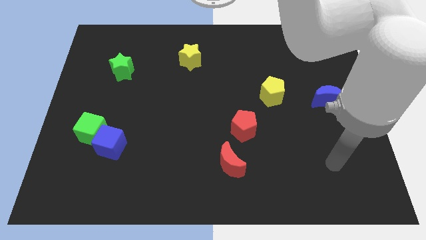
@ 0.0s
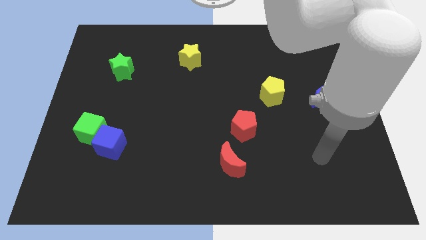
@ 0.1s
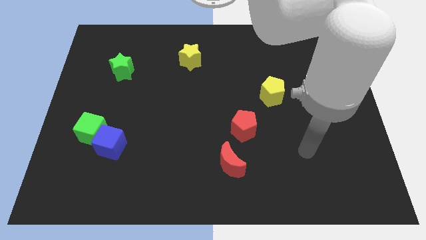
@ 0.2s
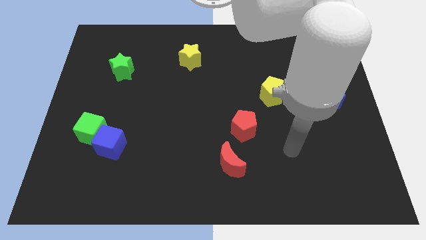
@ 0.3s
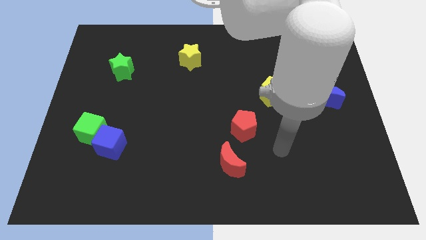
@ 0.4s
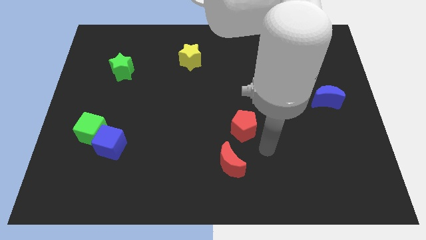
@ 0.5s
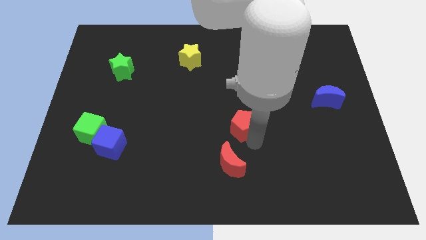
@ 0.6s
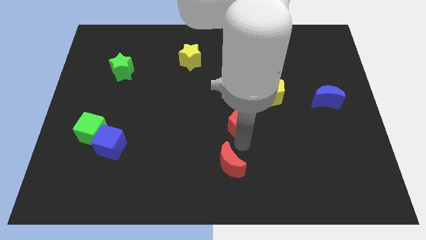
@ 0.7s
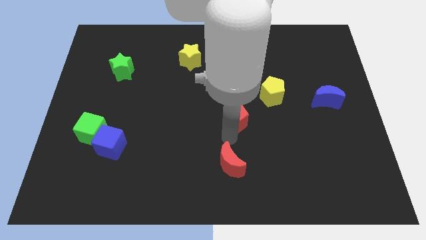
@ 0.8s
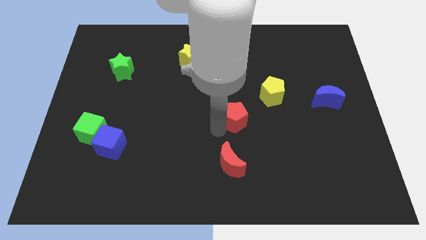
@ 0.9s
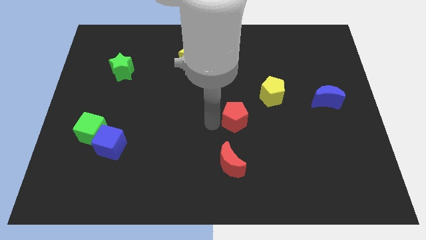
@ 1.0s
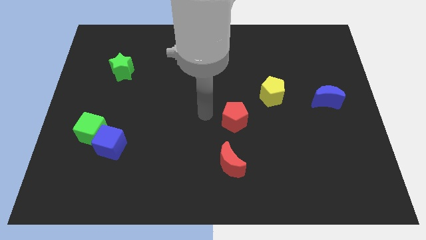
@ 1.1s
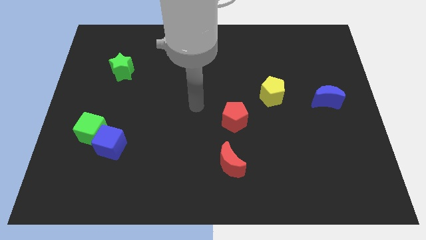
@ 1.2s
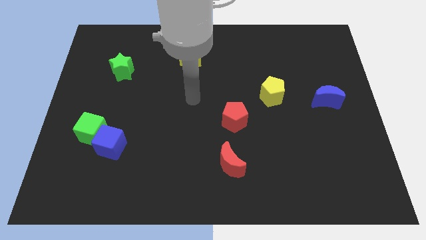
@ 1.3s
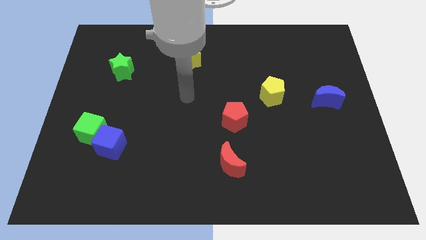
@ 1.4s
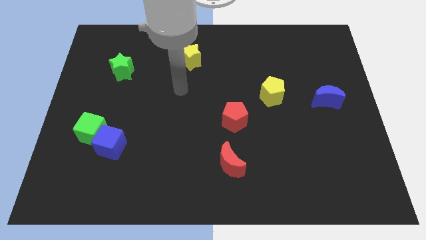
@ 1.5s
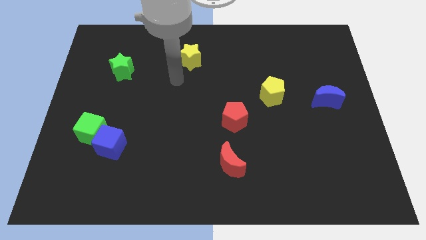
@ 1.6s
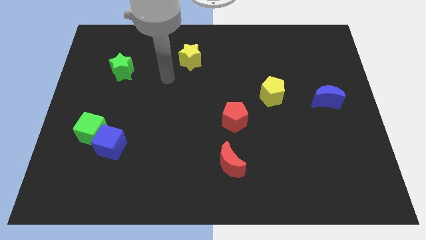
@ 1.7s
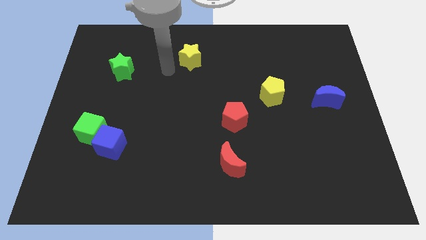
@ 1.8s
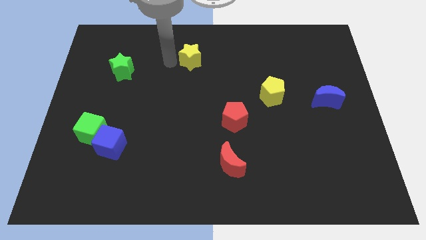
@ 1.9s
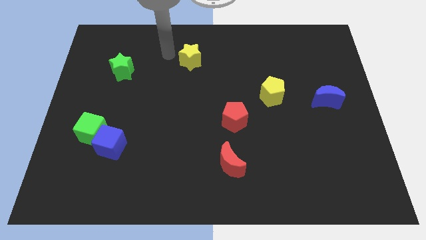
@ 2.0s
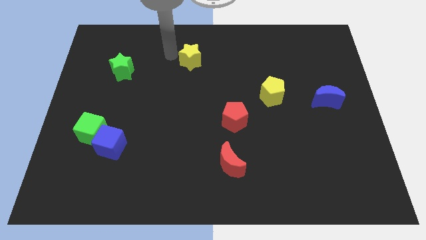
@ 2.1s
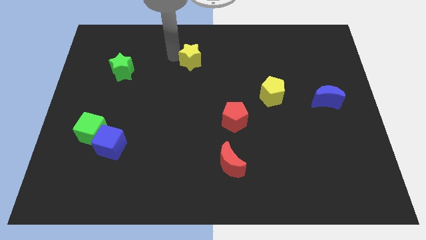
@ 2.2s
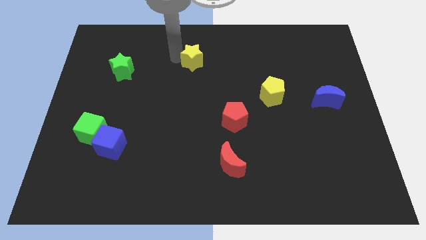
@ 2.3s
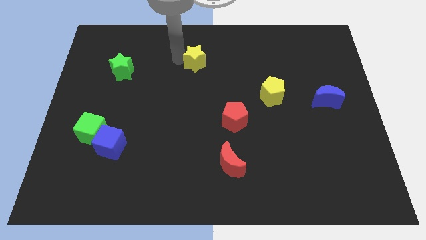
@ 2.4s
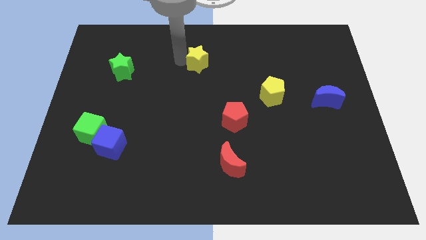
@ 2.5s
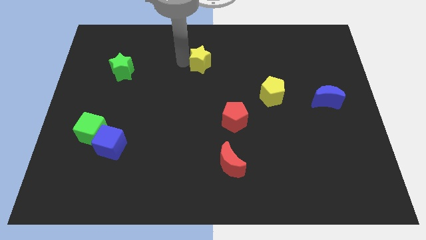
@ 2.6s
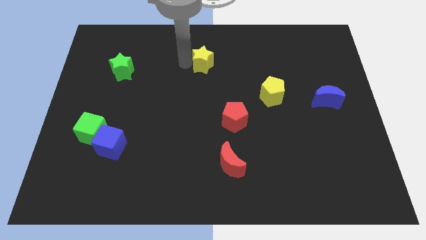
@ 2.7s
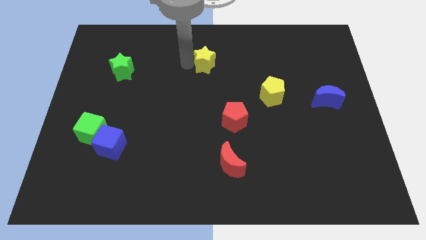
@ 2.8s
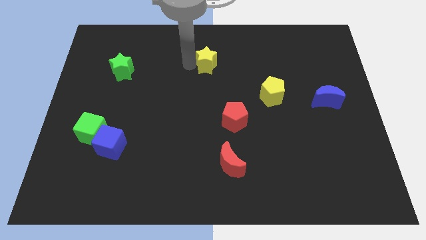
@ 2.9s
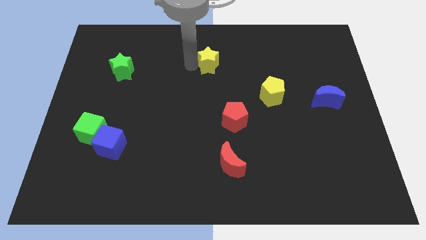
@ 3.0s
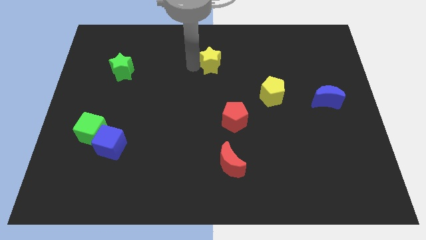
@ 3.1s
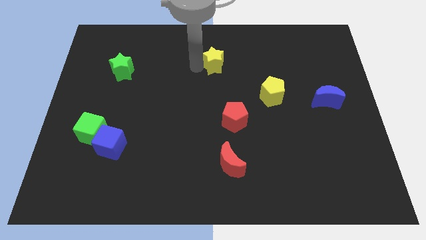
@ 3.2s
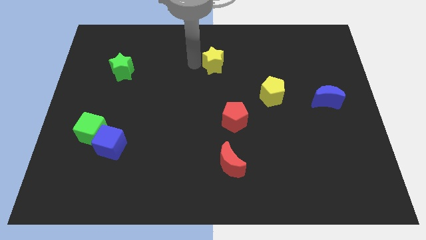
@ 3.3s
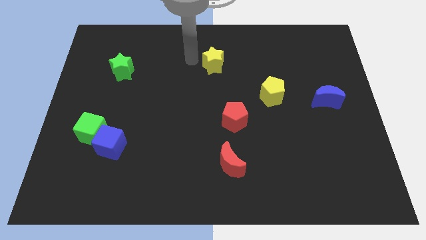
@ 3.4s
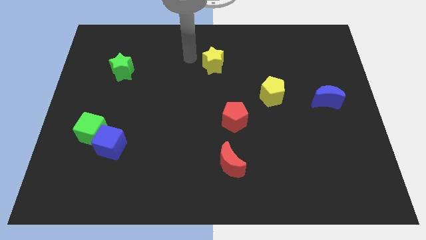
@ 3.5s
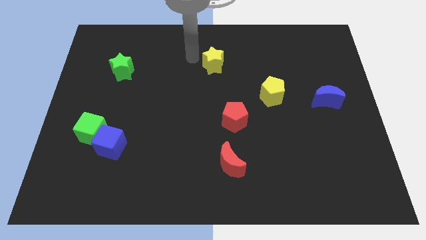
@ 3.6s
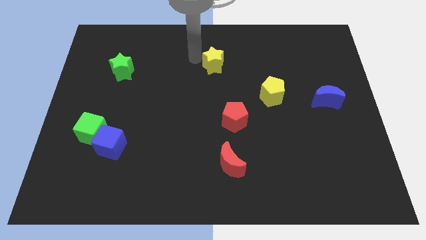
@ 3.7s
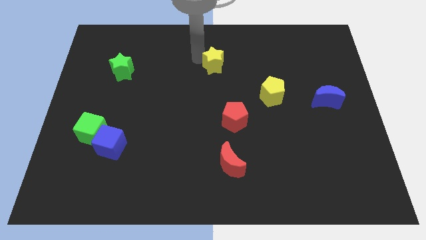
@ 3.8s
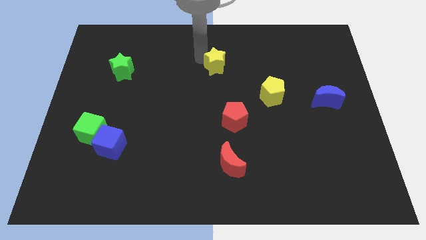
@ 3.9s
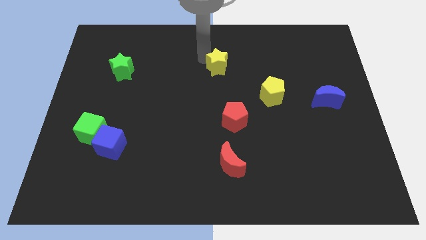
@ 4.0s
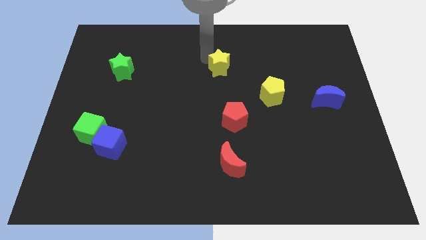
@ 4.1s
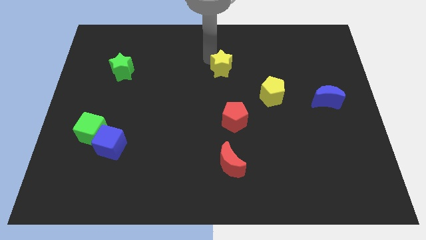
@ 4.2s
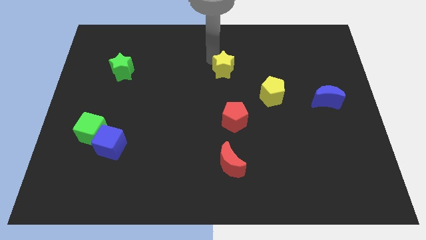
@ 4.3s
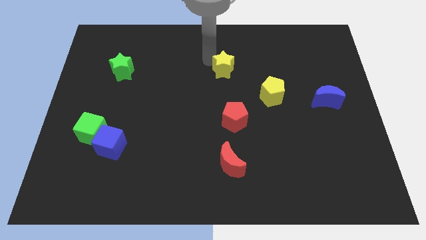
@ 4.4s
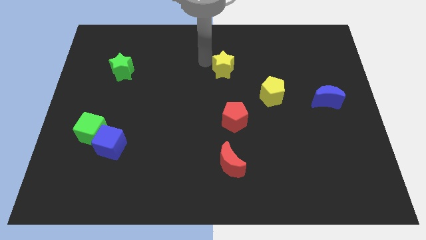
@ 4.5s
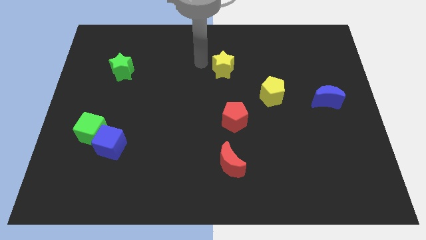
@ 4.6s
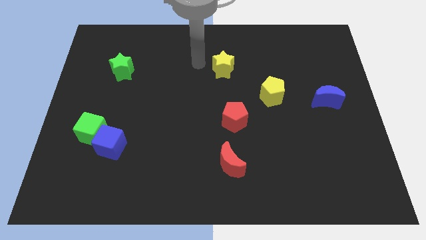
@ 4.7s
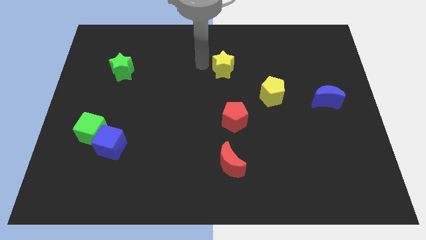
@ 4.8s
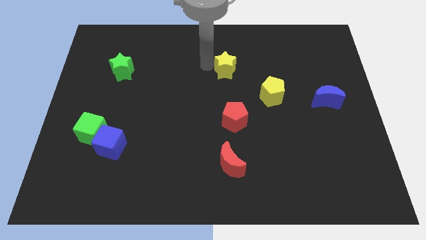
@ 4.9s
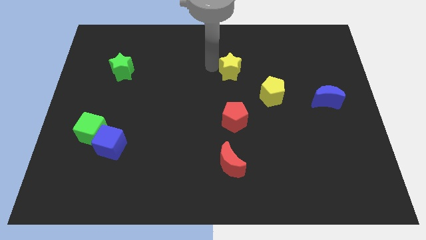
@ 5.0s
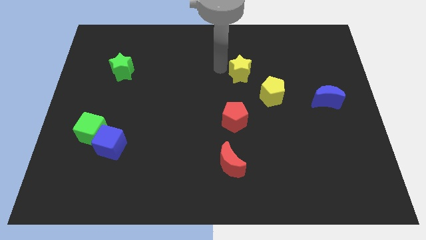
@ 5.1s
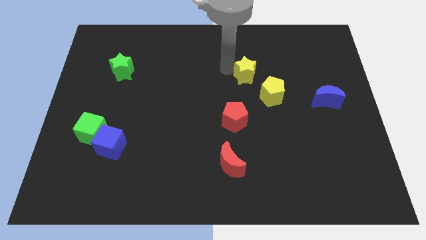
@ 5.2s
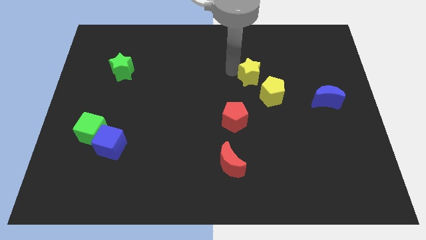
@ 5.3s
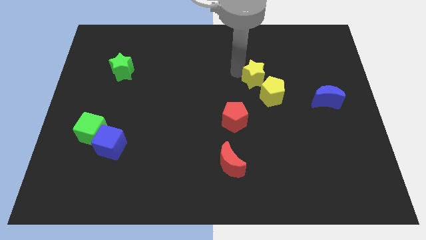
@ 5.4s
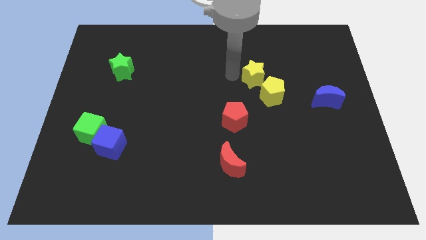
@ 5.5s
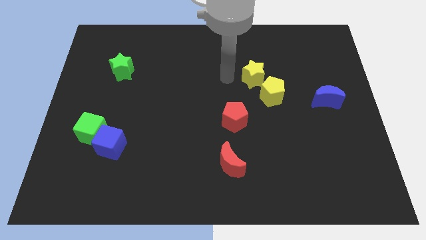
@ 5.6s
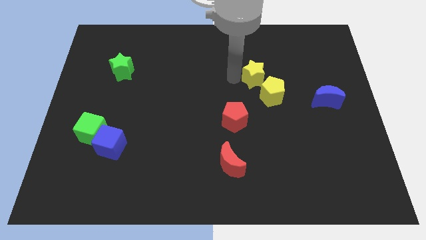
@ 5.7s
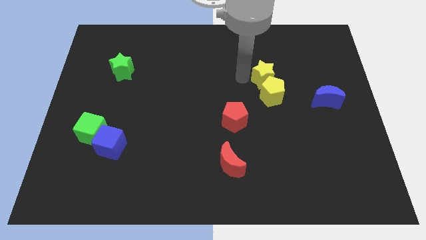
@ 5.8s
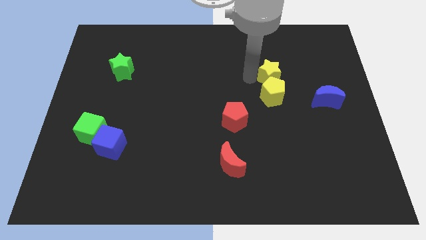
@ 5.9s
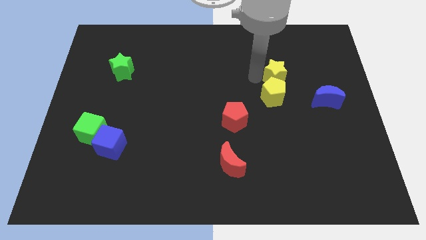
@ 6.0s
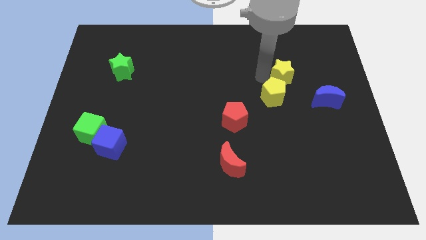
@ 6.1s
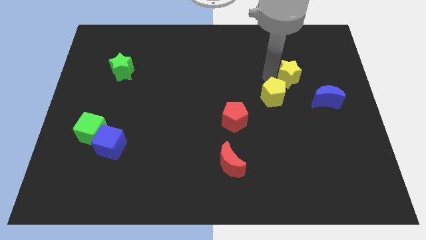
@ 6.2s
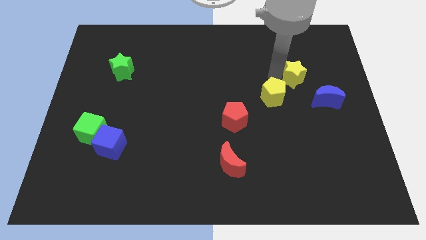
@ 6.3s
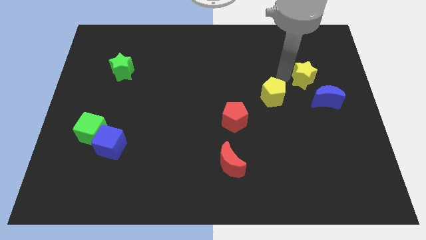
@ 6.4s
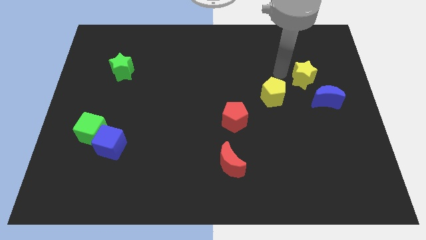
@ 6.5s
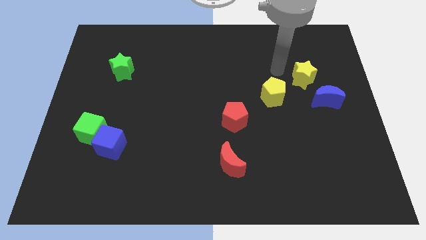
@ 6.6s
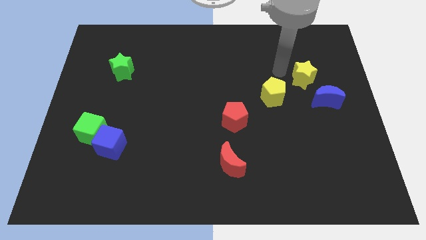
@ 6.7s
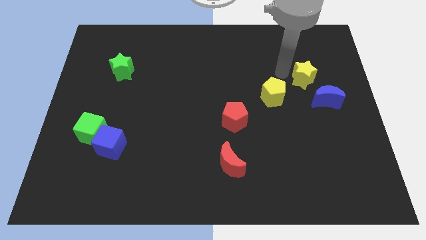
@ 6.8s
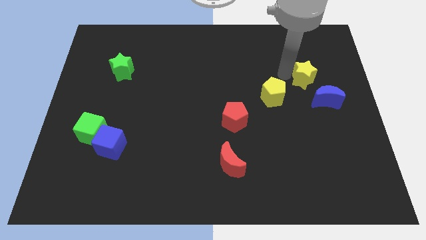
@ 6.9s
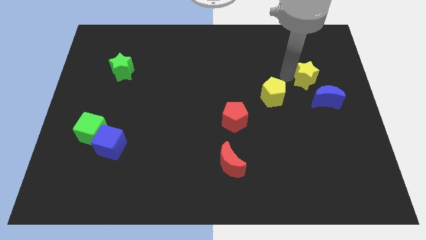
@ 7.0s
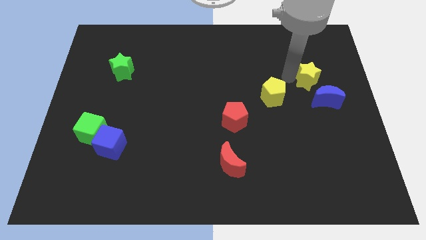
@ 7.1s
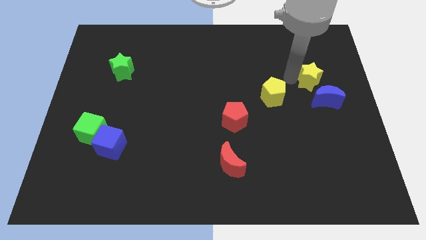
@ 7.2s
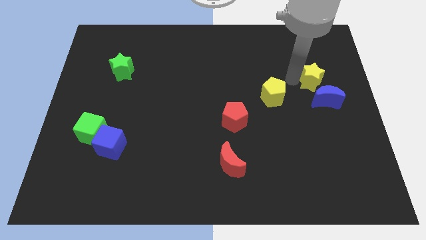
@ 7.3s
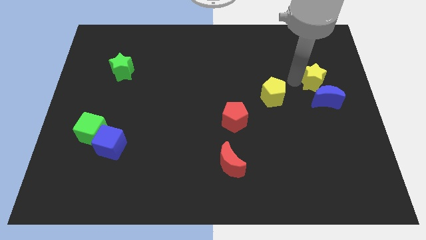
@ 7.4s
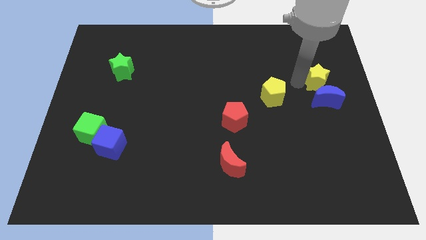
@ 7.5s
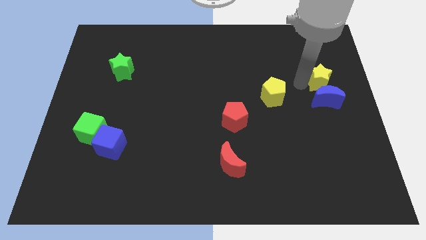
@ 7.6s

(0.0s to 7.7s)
move the yellow star to the right side
